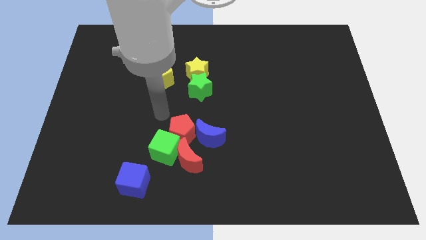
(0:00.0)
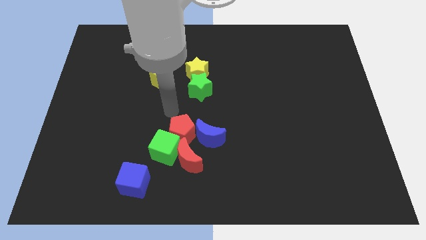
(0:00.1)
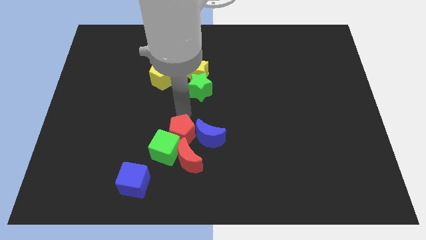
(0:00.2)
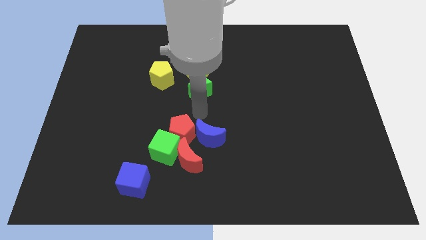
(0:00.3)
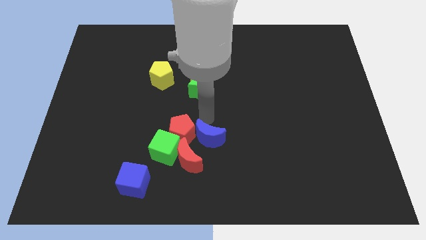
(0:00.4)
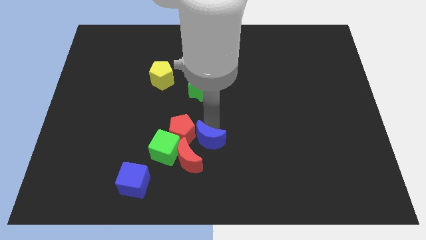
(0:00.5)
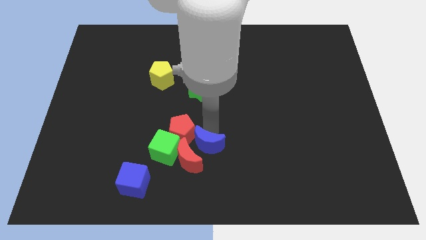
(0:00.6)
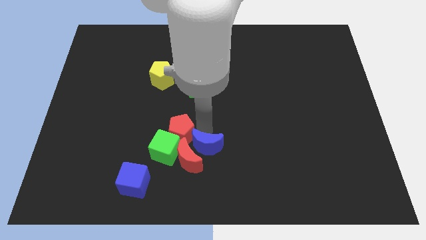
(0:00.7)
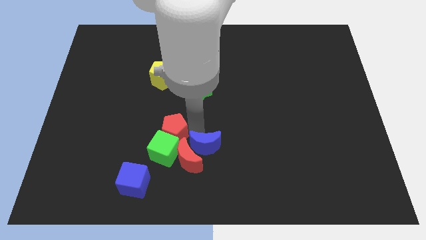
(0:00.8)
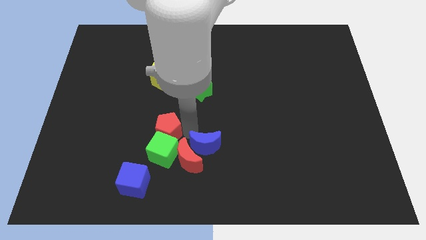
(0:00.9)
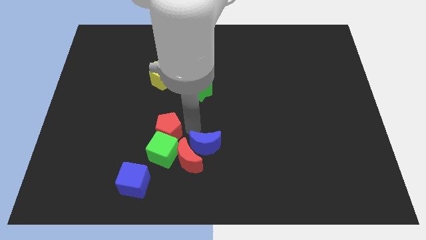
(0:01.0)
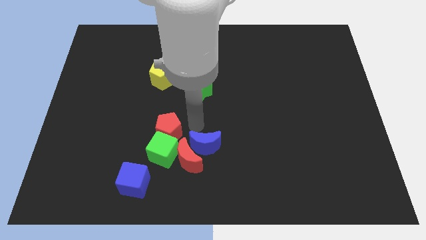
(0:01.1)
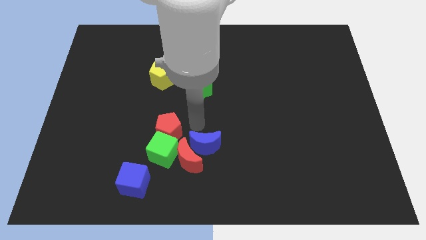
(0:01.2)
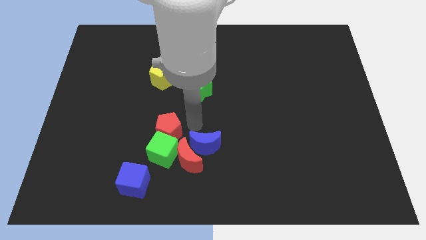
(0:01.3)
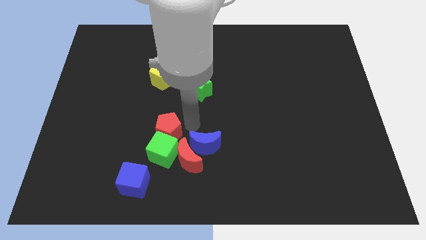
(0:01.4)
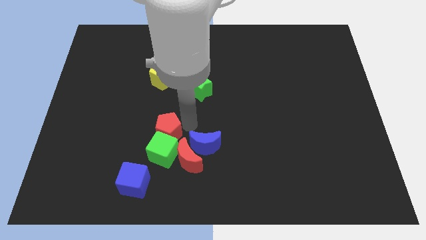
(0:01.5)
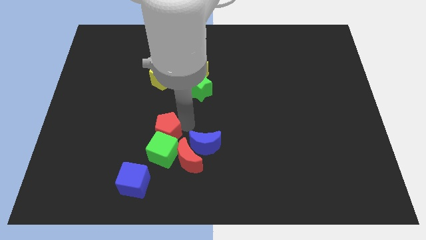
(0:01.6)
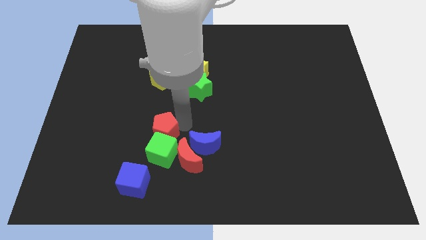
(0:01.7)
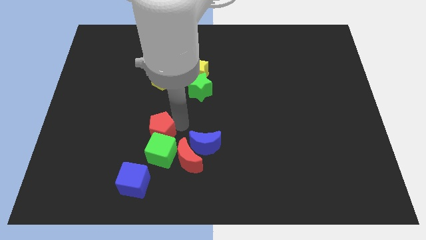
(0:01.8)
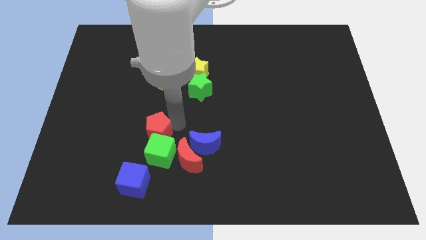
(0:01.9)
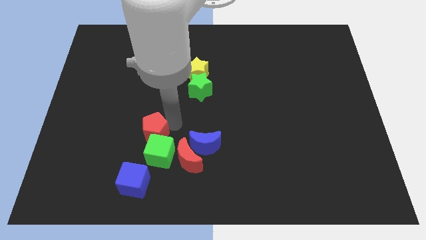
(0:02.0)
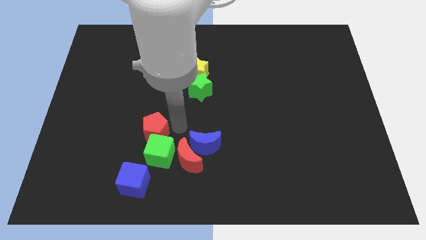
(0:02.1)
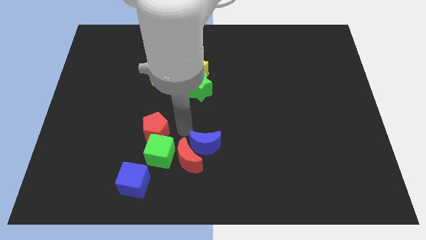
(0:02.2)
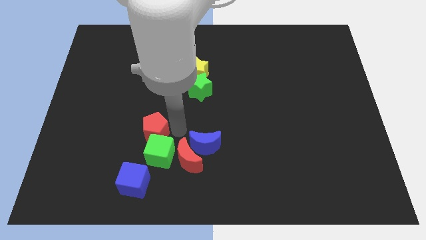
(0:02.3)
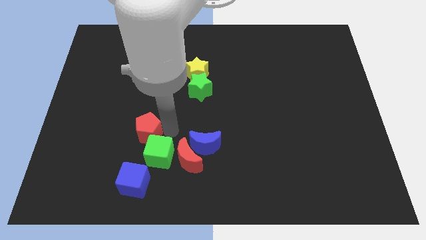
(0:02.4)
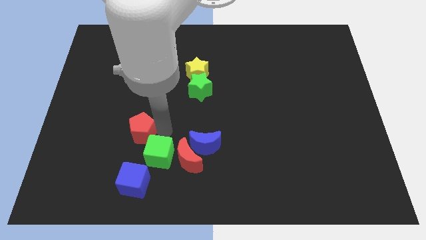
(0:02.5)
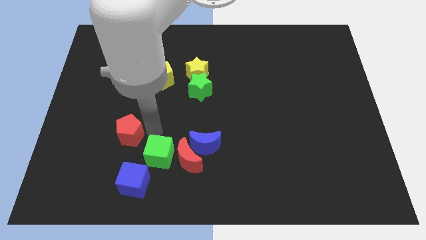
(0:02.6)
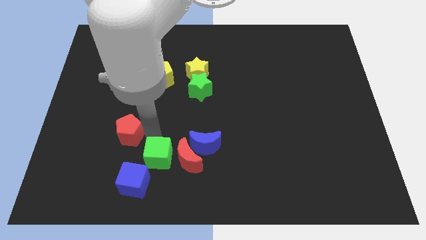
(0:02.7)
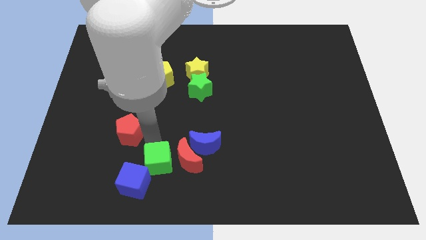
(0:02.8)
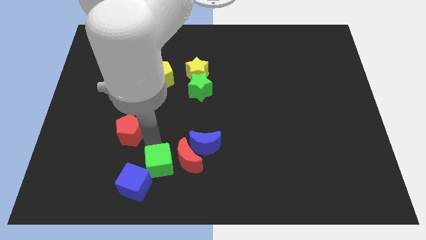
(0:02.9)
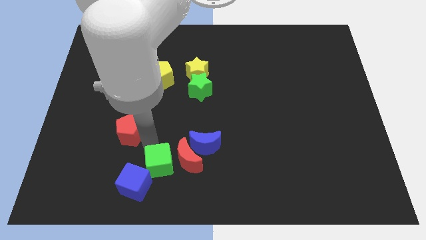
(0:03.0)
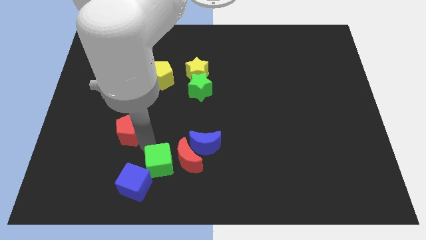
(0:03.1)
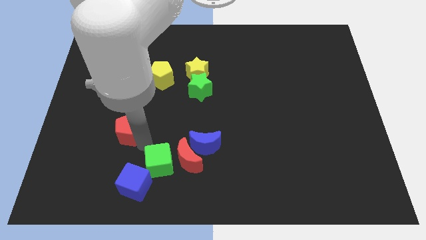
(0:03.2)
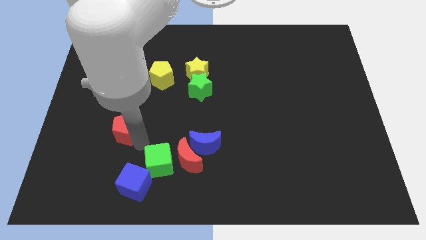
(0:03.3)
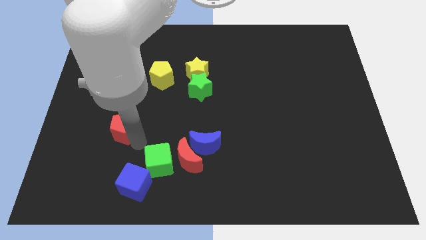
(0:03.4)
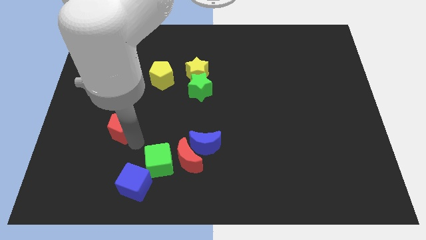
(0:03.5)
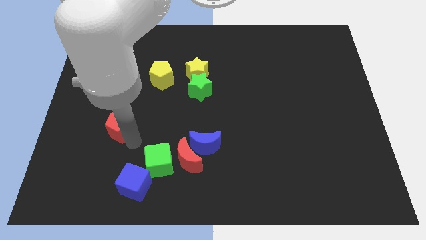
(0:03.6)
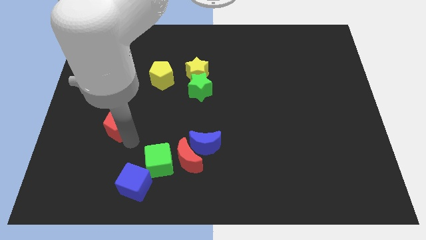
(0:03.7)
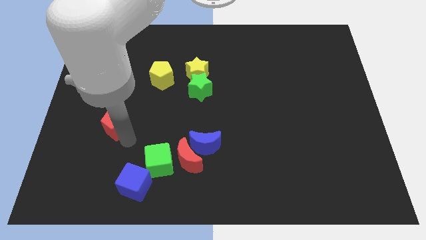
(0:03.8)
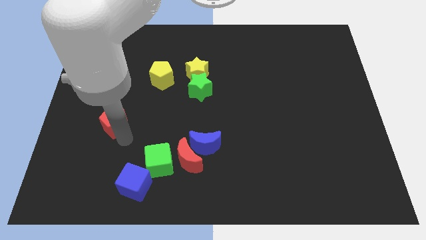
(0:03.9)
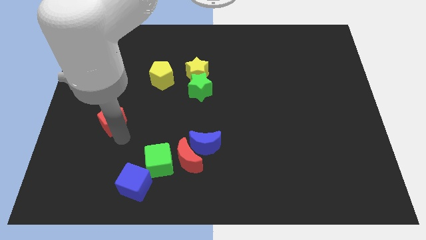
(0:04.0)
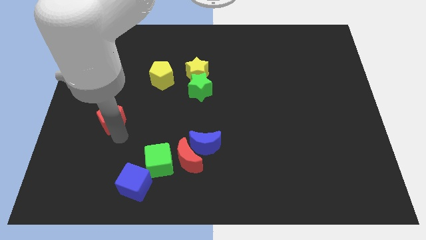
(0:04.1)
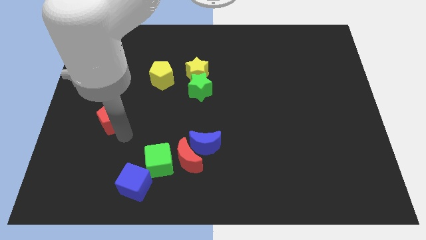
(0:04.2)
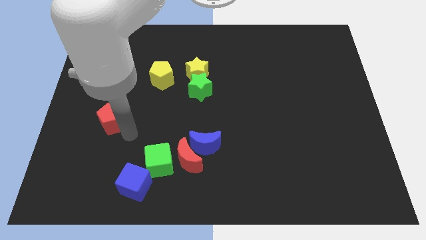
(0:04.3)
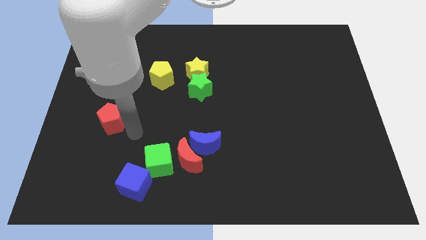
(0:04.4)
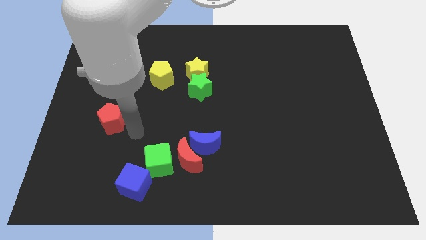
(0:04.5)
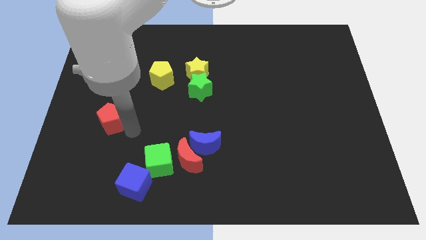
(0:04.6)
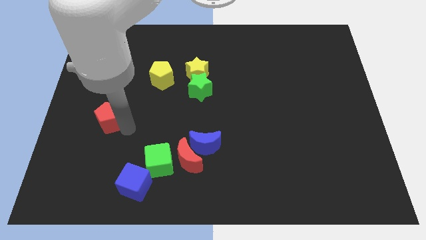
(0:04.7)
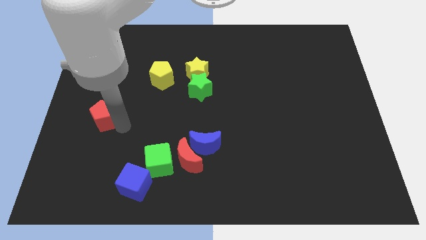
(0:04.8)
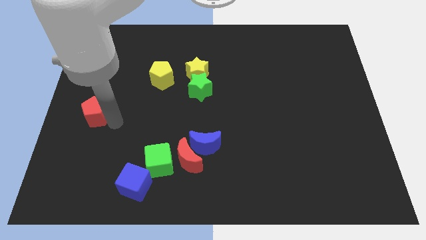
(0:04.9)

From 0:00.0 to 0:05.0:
push the red pentagon to the center left

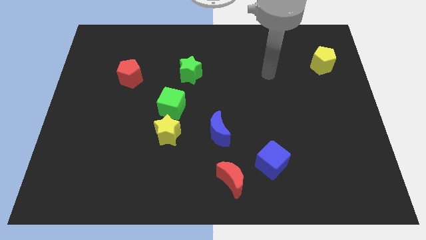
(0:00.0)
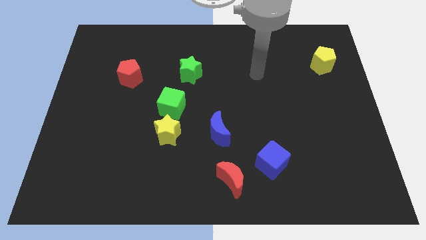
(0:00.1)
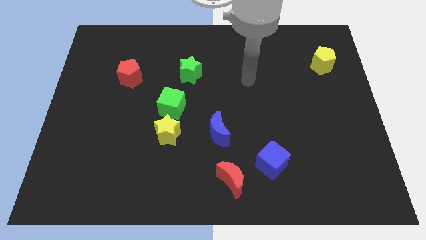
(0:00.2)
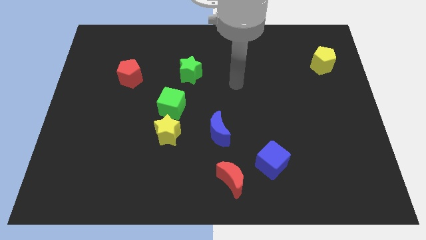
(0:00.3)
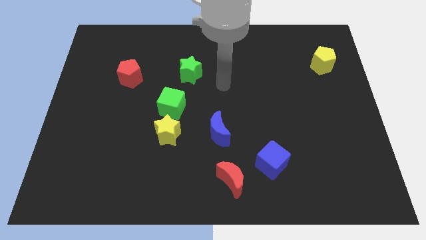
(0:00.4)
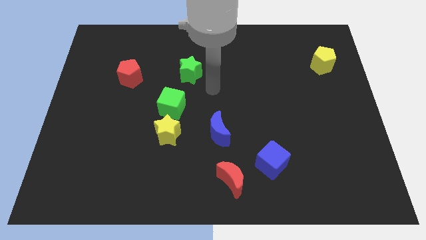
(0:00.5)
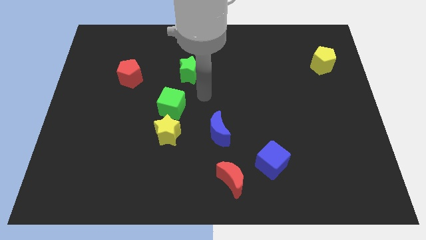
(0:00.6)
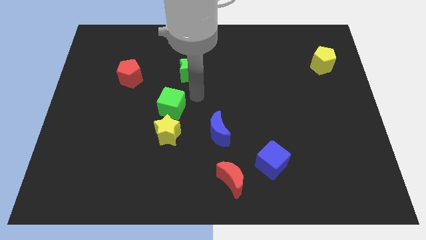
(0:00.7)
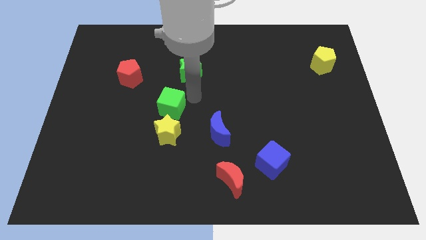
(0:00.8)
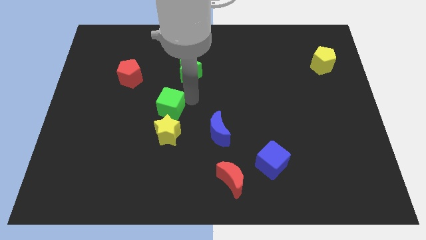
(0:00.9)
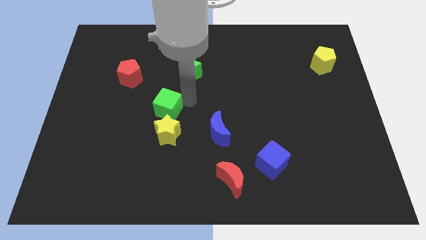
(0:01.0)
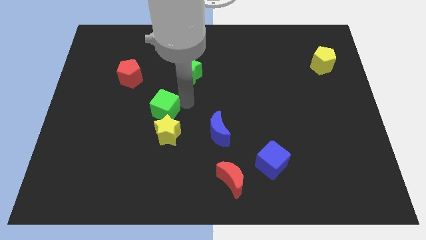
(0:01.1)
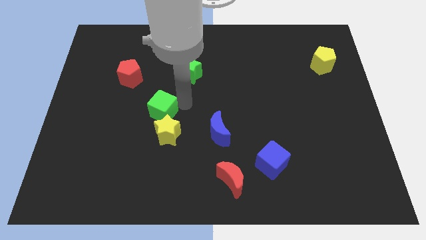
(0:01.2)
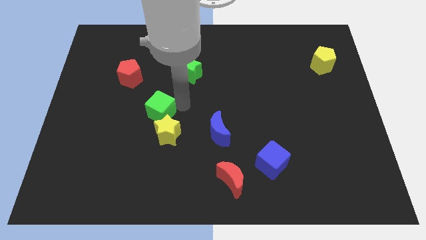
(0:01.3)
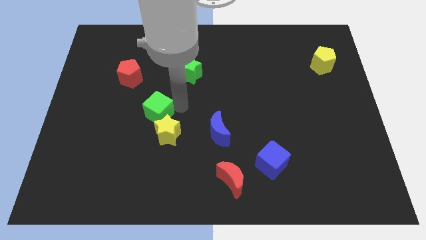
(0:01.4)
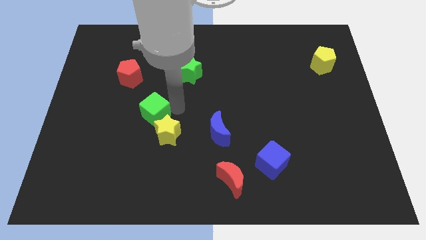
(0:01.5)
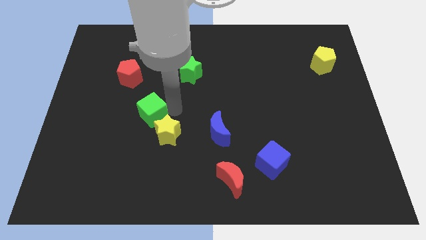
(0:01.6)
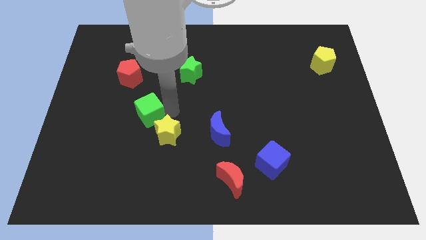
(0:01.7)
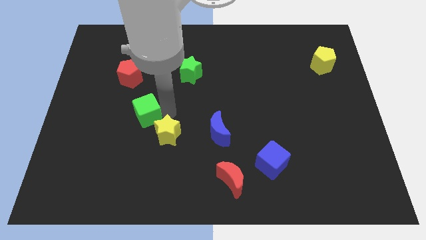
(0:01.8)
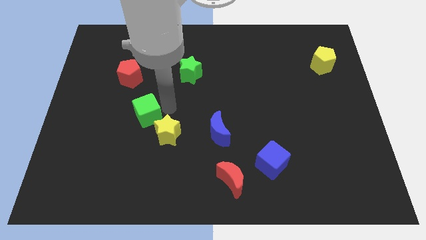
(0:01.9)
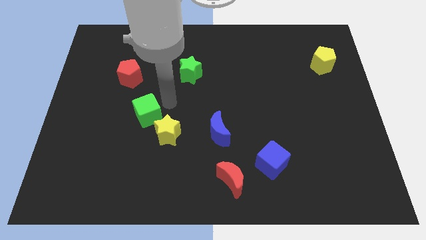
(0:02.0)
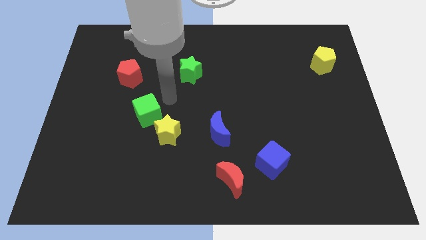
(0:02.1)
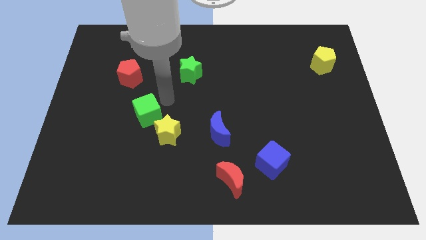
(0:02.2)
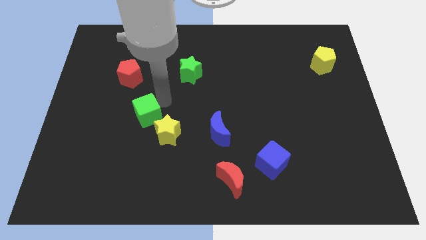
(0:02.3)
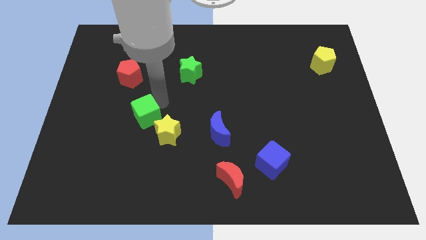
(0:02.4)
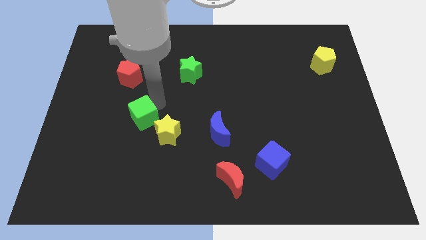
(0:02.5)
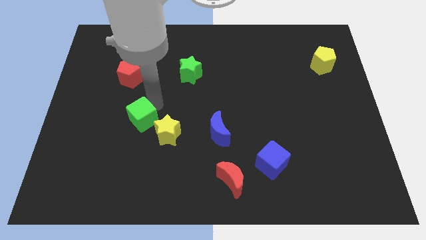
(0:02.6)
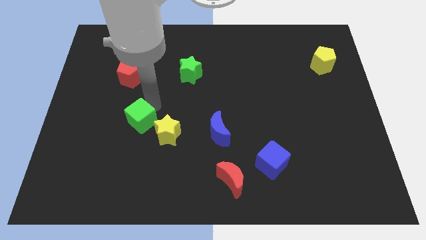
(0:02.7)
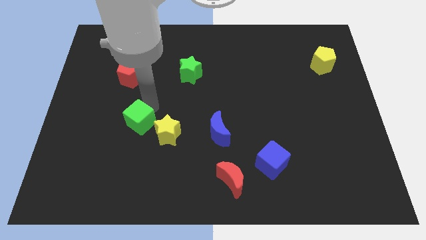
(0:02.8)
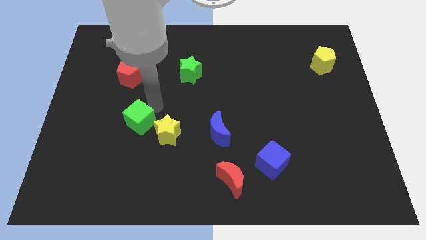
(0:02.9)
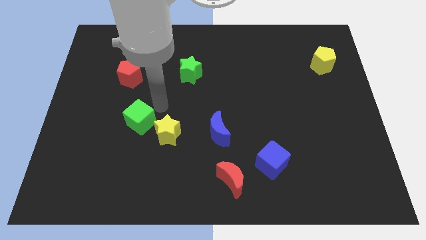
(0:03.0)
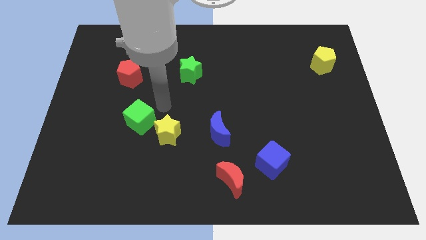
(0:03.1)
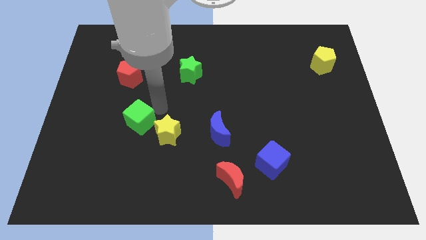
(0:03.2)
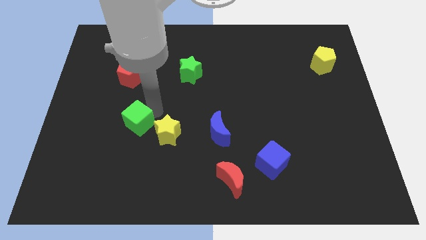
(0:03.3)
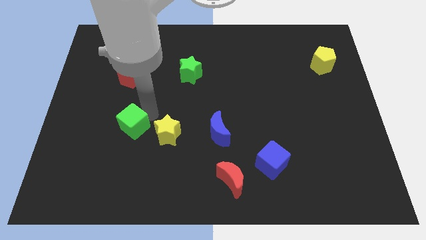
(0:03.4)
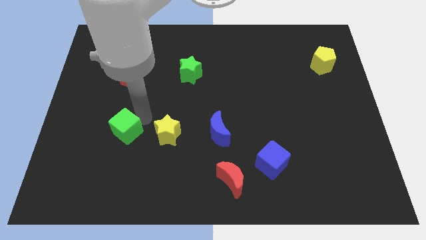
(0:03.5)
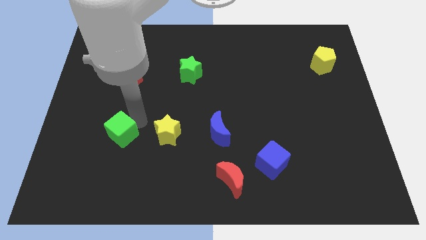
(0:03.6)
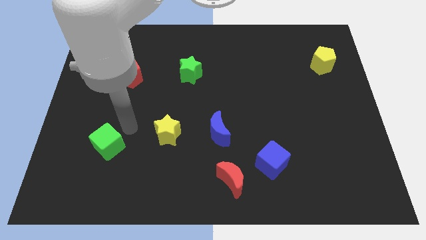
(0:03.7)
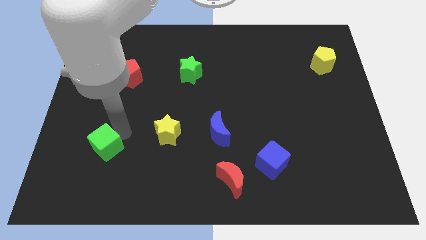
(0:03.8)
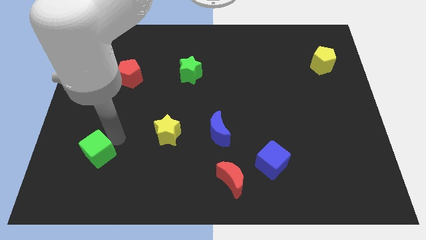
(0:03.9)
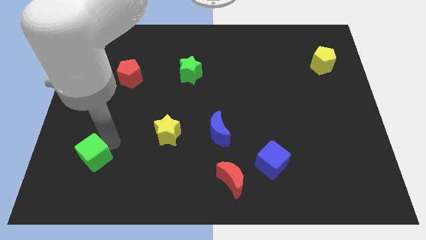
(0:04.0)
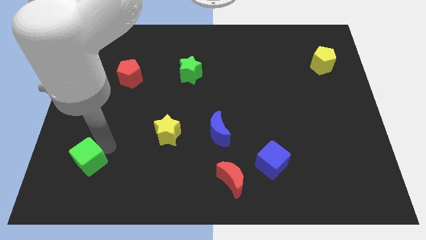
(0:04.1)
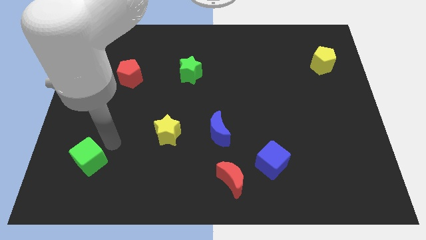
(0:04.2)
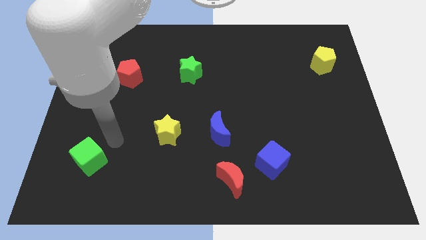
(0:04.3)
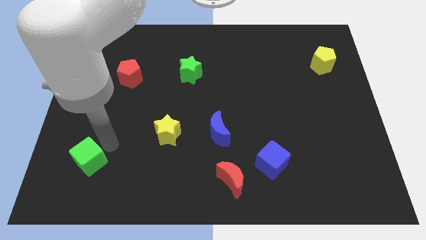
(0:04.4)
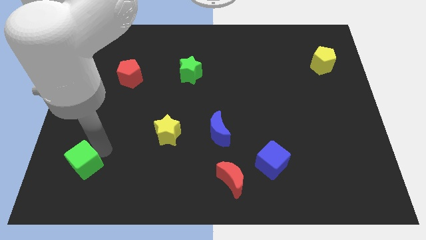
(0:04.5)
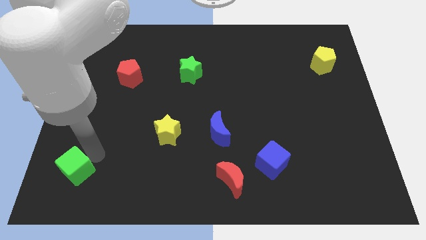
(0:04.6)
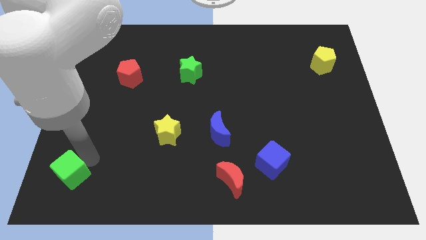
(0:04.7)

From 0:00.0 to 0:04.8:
put the green cube to the bottom left corner
